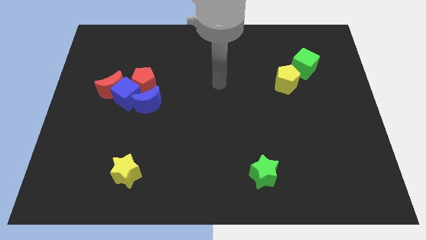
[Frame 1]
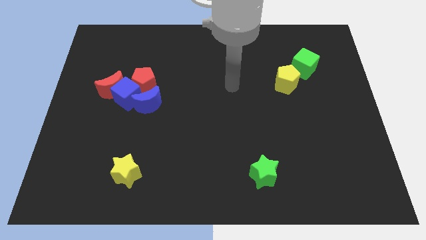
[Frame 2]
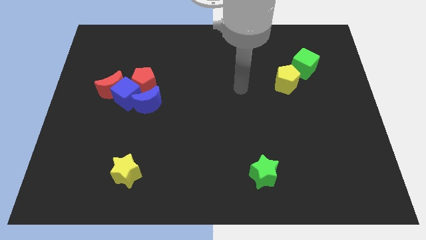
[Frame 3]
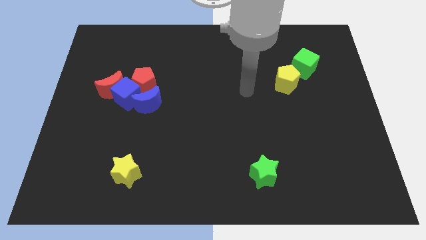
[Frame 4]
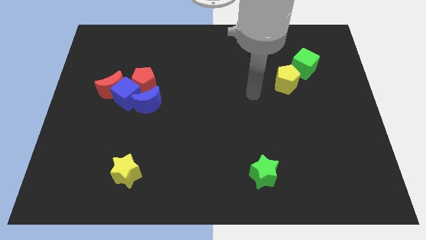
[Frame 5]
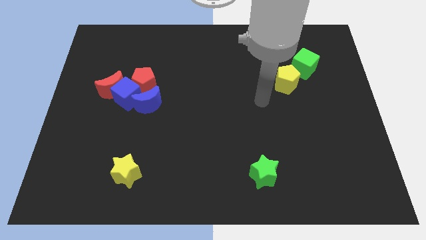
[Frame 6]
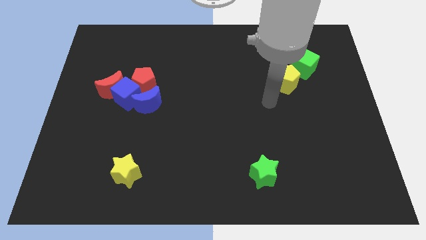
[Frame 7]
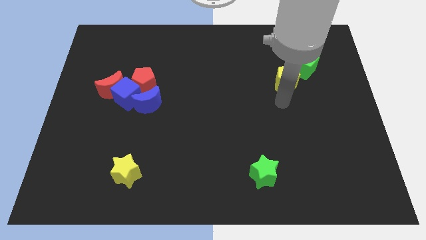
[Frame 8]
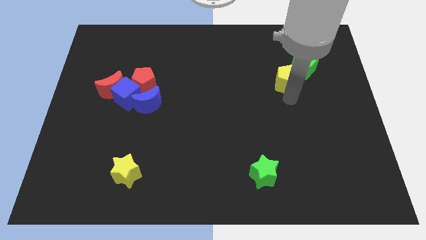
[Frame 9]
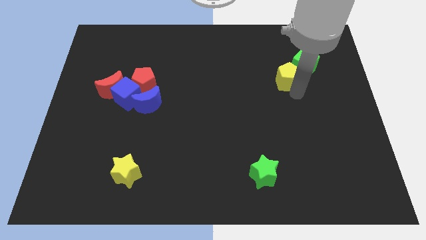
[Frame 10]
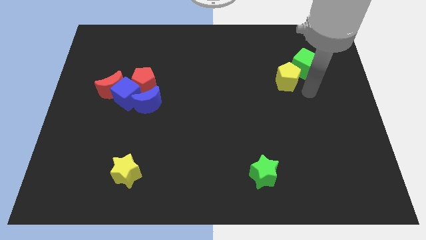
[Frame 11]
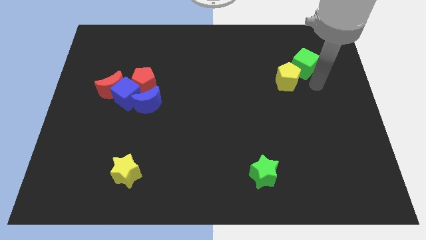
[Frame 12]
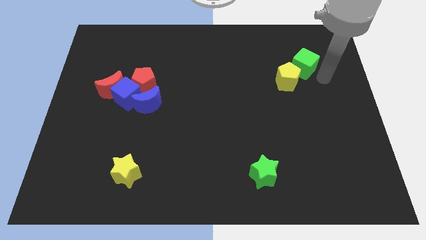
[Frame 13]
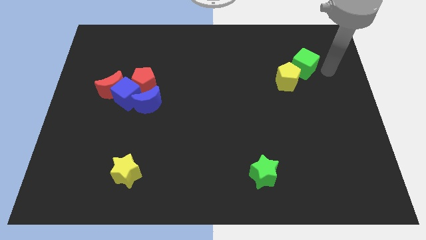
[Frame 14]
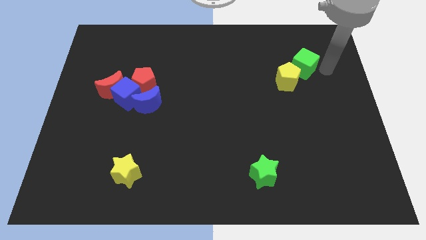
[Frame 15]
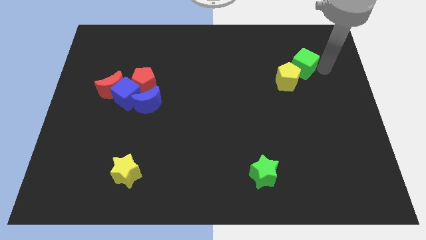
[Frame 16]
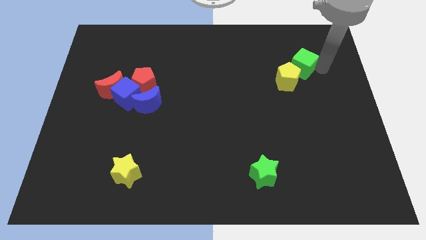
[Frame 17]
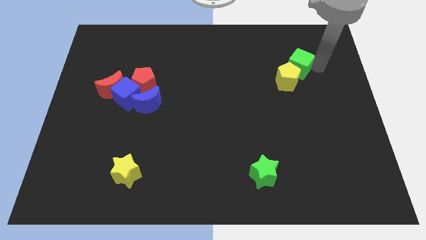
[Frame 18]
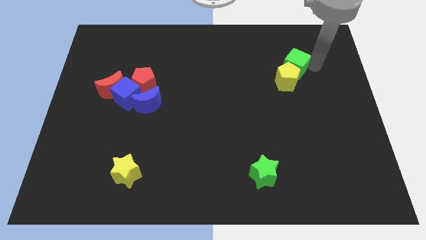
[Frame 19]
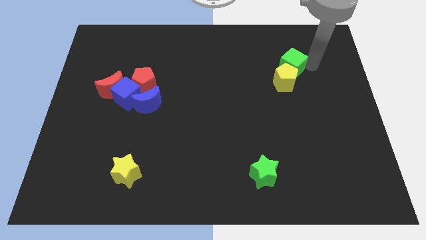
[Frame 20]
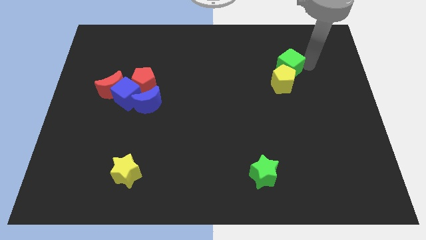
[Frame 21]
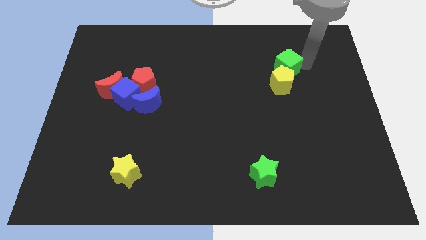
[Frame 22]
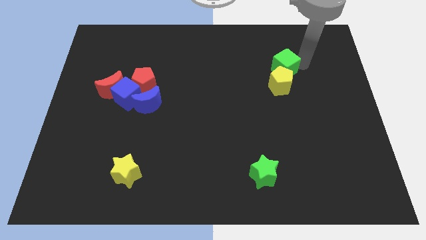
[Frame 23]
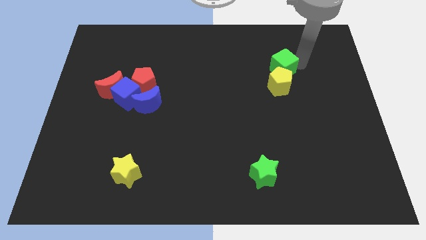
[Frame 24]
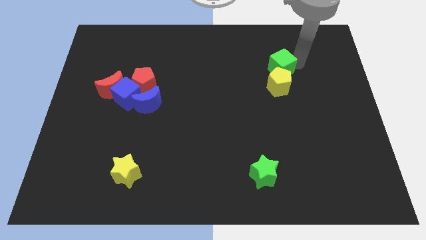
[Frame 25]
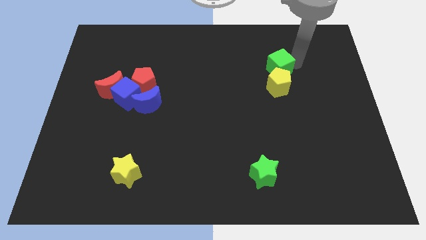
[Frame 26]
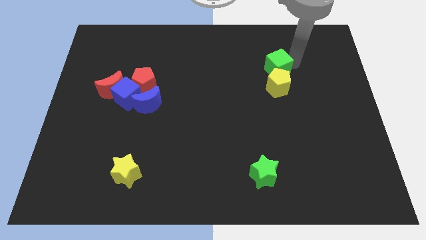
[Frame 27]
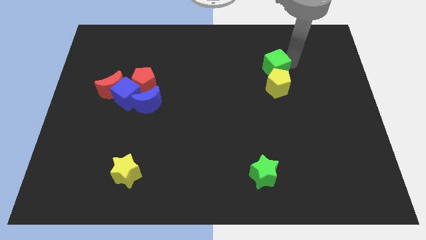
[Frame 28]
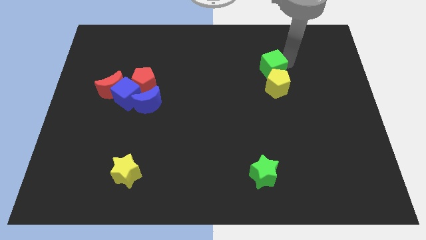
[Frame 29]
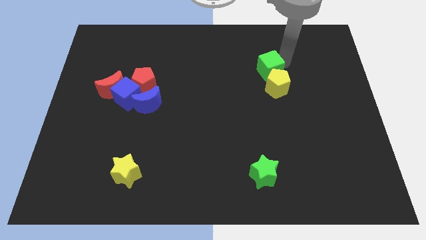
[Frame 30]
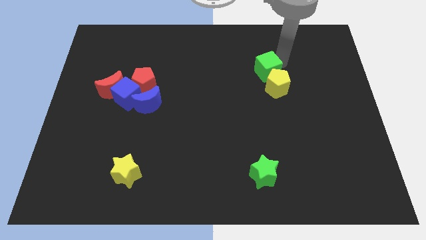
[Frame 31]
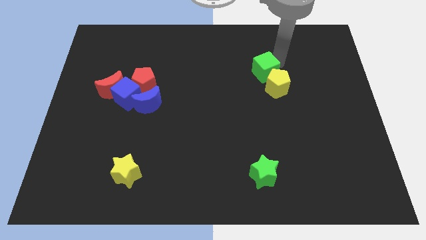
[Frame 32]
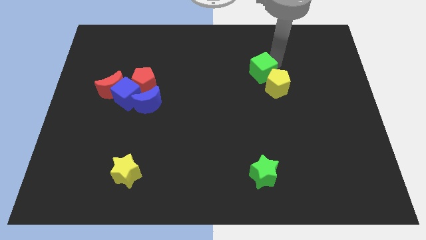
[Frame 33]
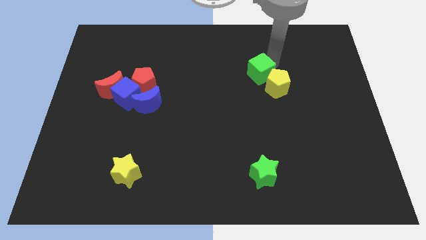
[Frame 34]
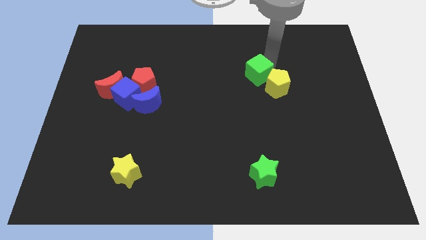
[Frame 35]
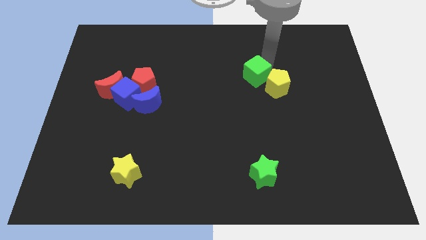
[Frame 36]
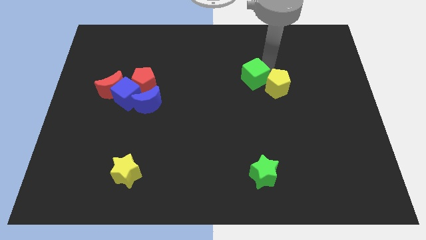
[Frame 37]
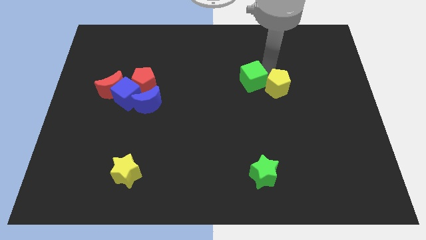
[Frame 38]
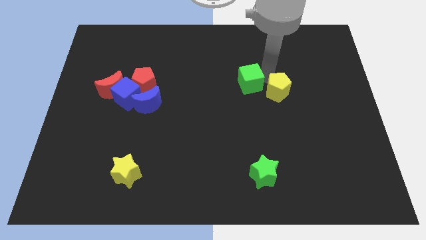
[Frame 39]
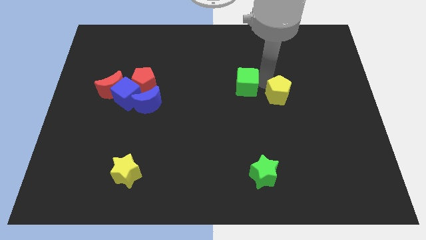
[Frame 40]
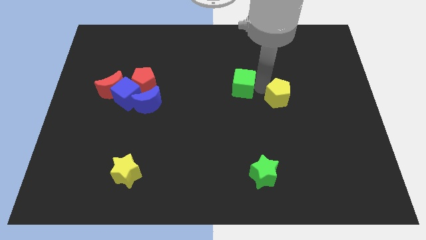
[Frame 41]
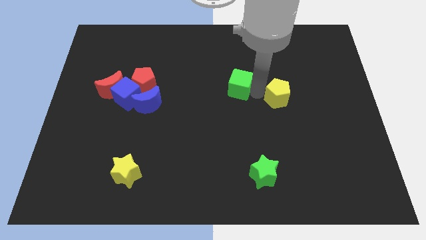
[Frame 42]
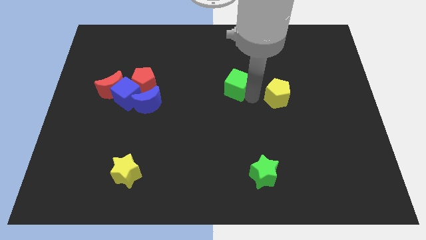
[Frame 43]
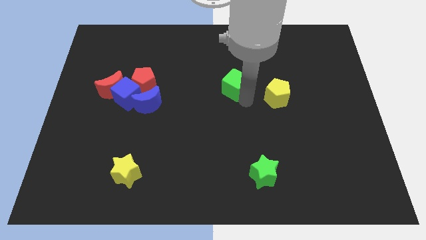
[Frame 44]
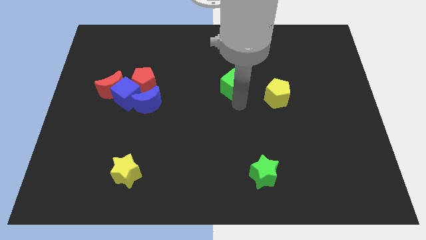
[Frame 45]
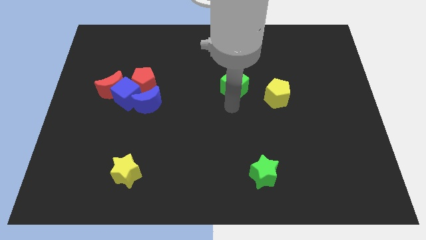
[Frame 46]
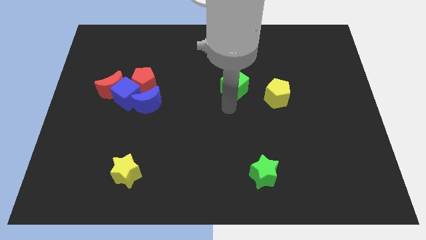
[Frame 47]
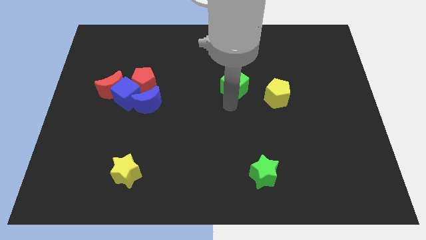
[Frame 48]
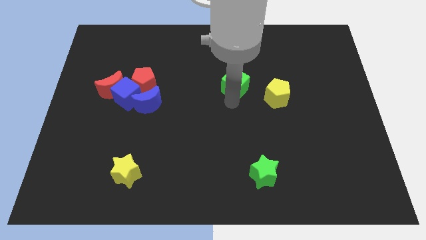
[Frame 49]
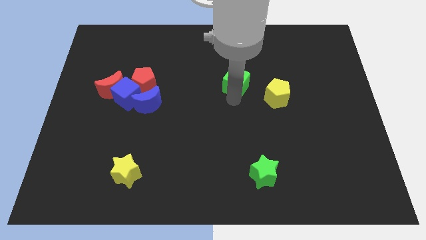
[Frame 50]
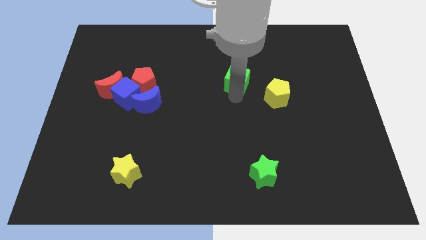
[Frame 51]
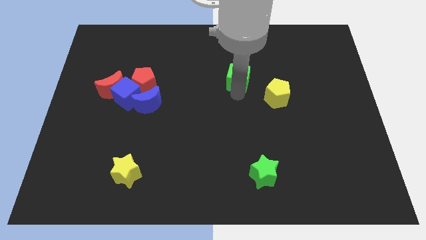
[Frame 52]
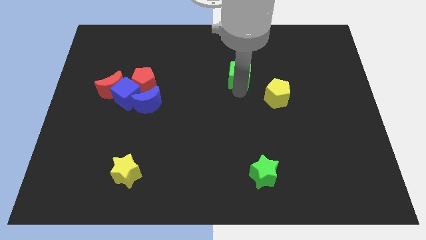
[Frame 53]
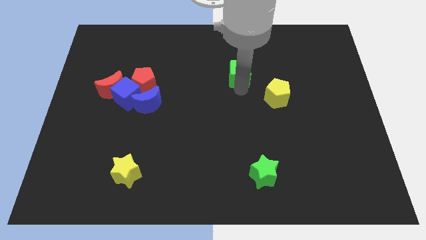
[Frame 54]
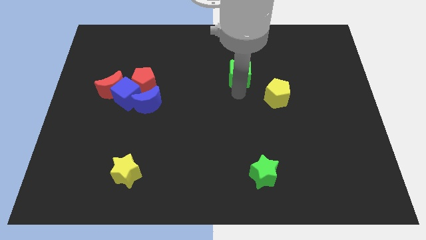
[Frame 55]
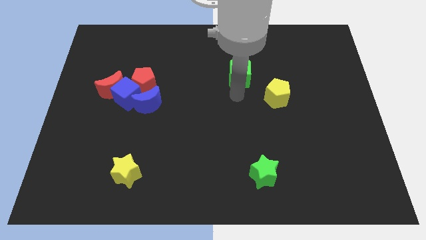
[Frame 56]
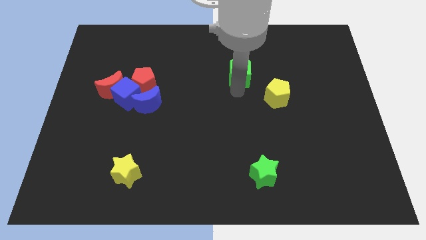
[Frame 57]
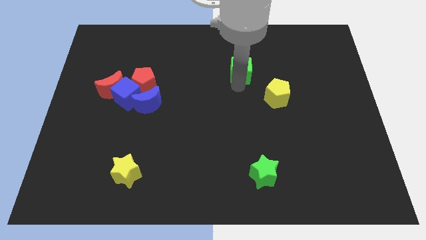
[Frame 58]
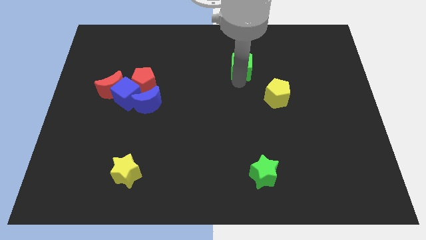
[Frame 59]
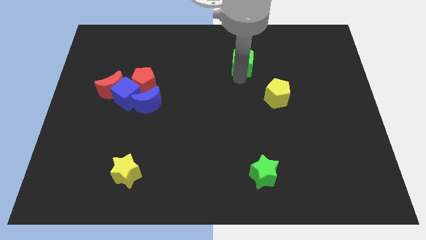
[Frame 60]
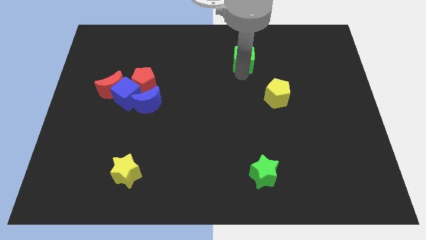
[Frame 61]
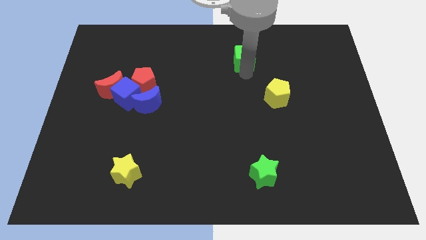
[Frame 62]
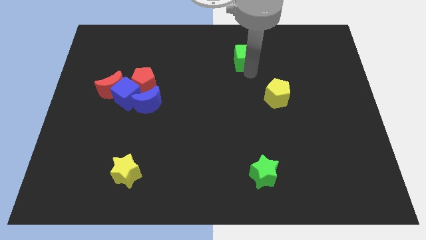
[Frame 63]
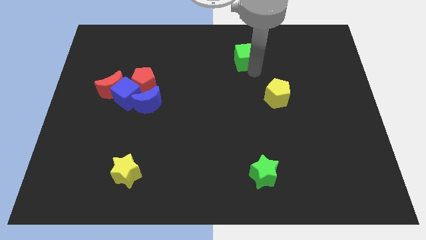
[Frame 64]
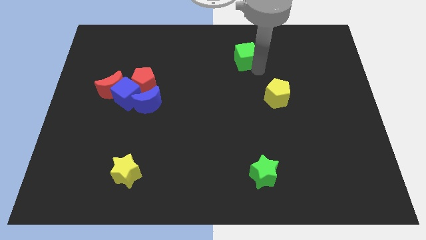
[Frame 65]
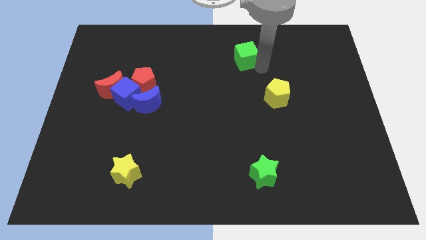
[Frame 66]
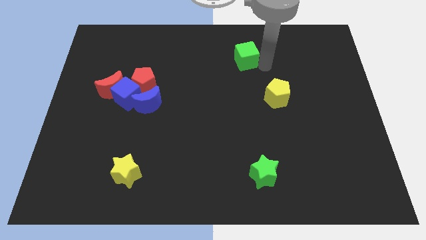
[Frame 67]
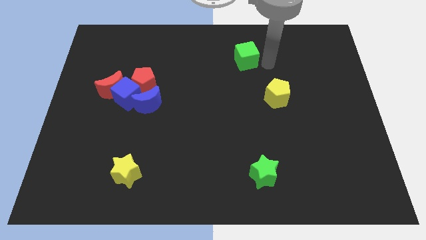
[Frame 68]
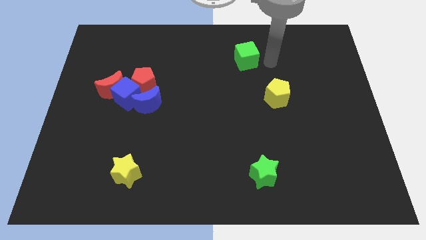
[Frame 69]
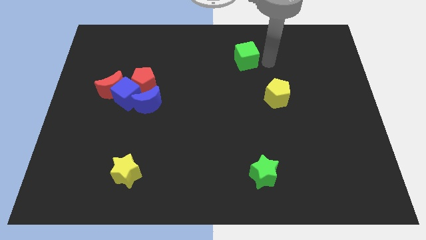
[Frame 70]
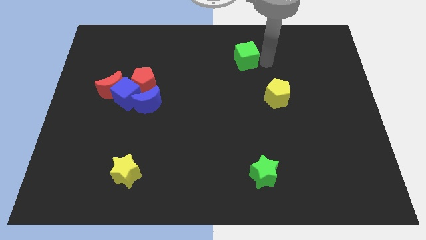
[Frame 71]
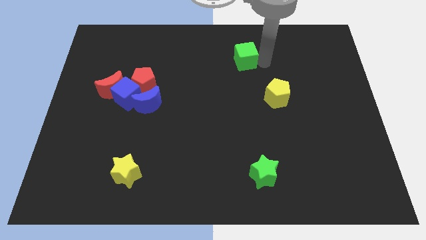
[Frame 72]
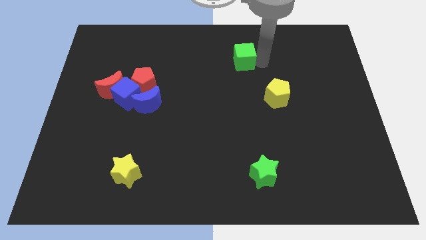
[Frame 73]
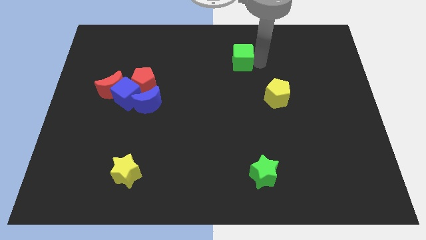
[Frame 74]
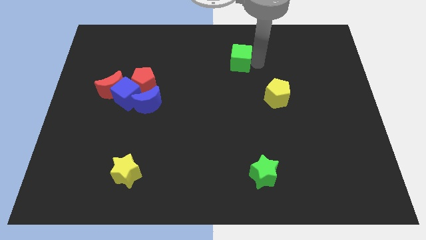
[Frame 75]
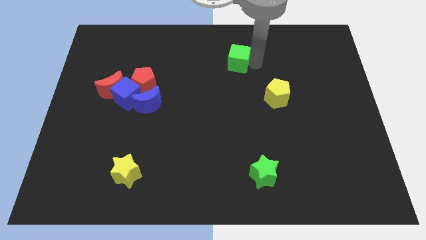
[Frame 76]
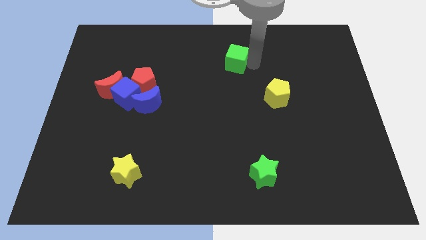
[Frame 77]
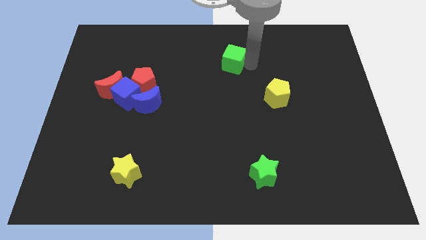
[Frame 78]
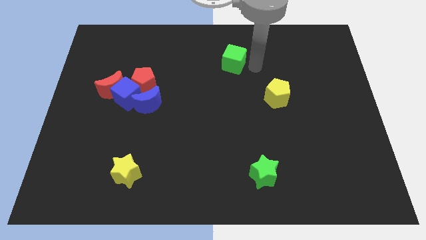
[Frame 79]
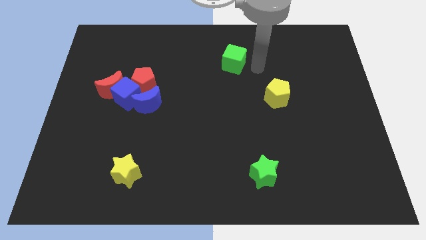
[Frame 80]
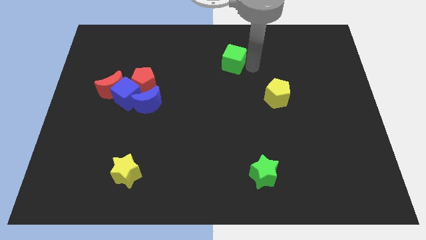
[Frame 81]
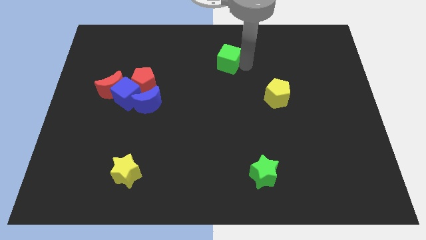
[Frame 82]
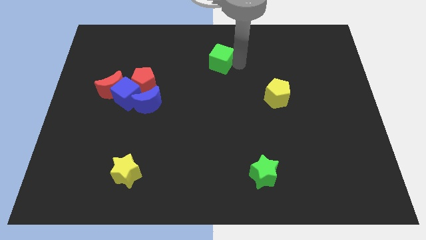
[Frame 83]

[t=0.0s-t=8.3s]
slide the green cube to the left
